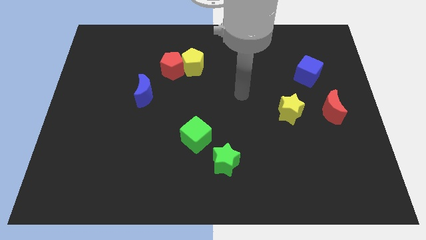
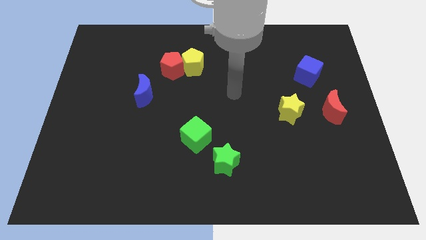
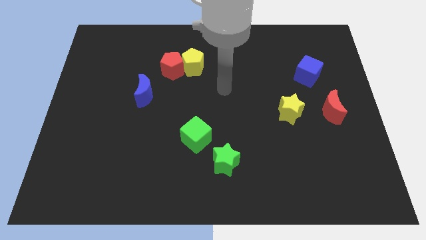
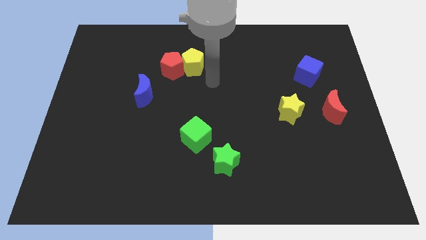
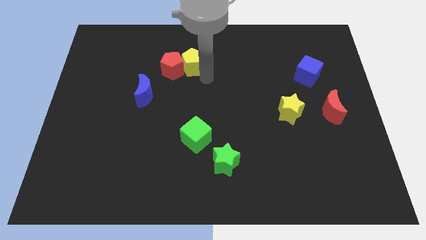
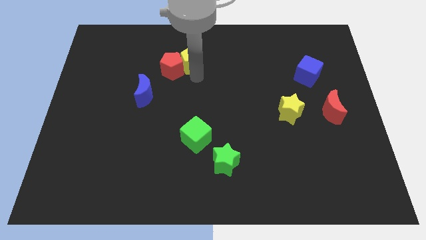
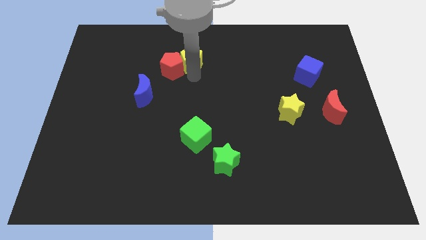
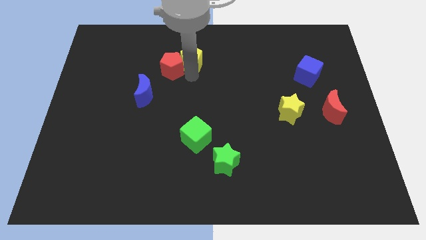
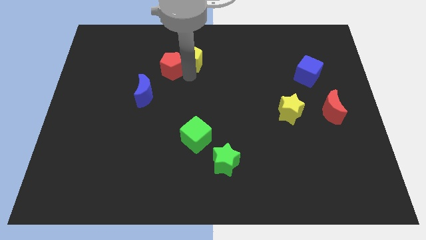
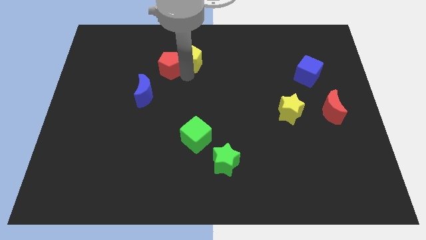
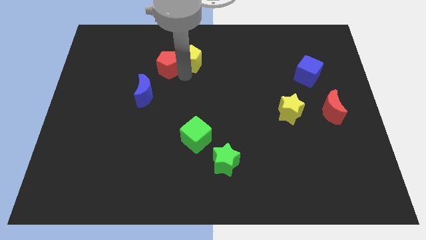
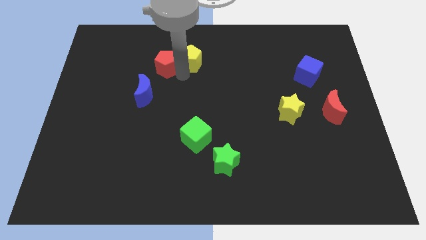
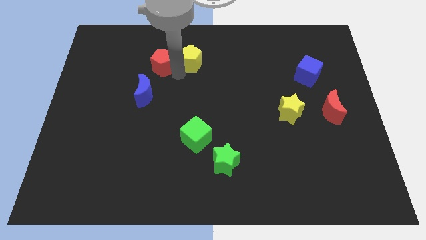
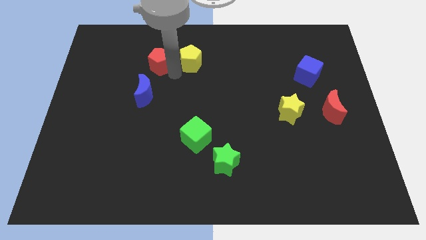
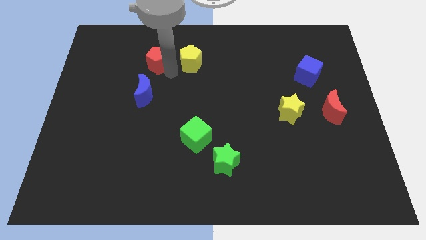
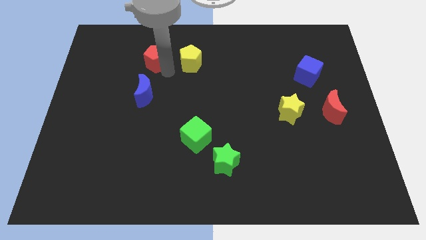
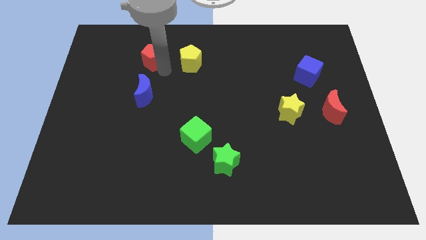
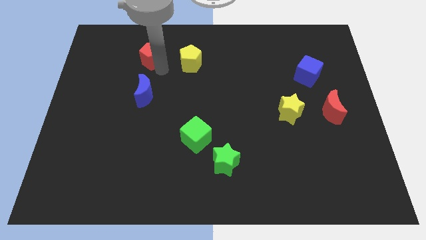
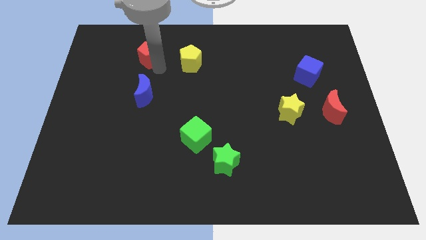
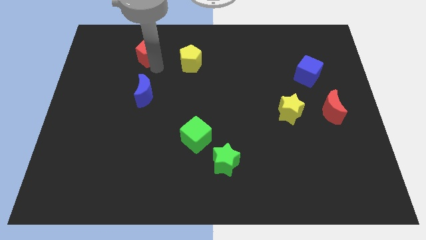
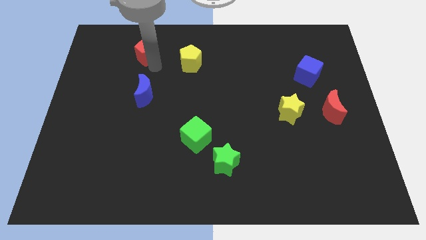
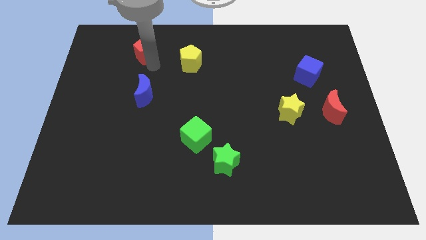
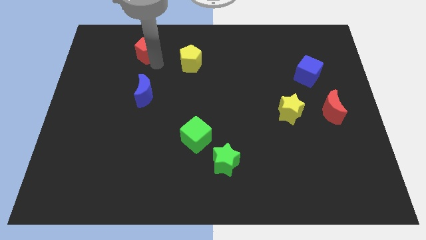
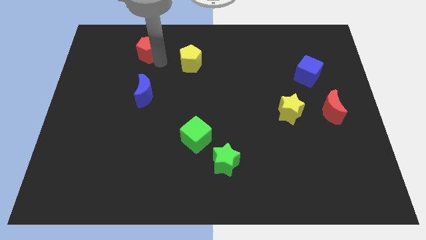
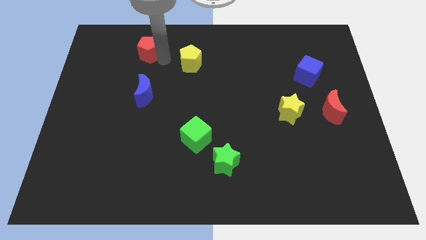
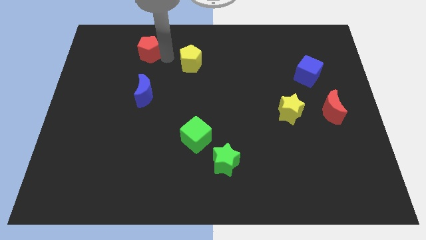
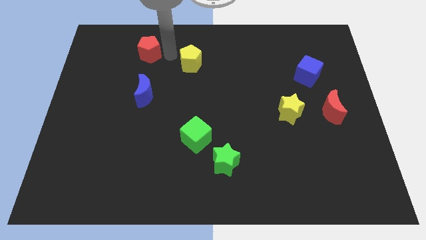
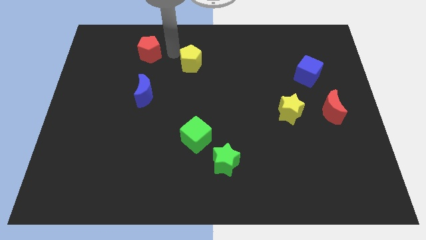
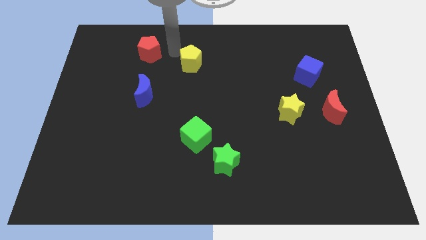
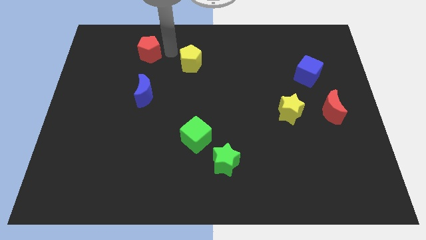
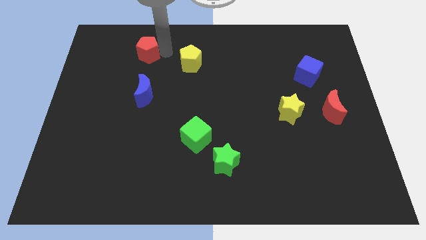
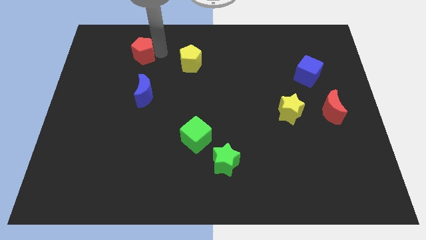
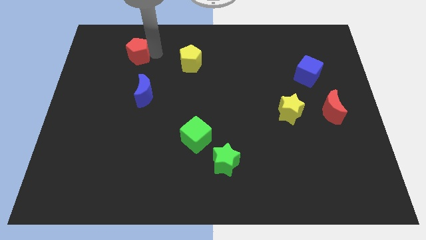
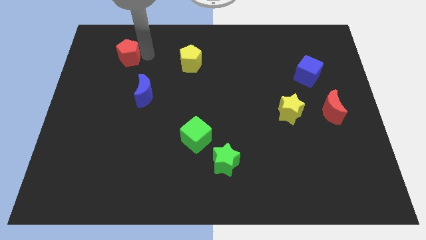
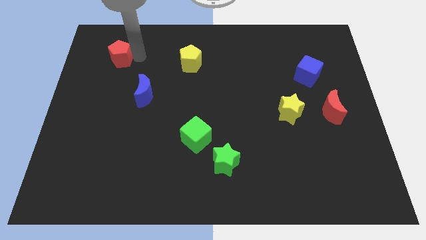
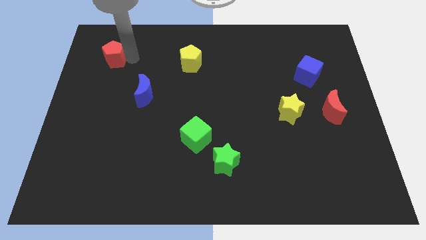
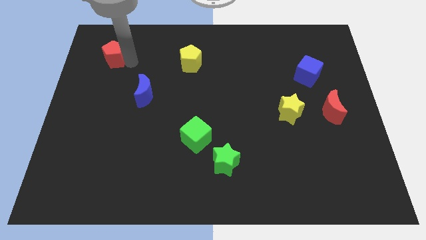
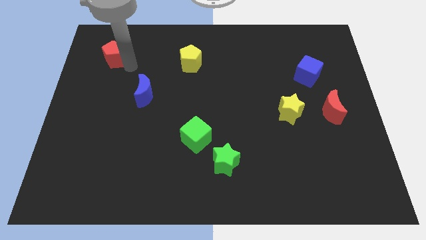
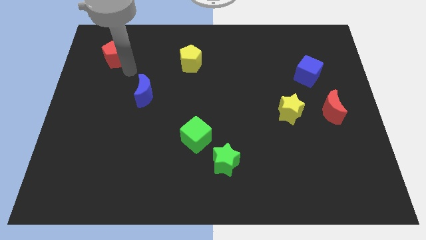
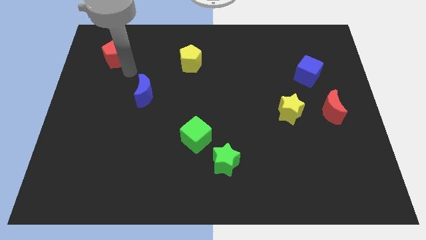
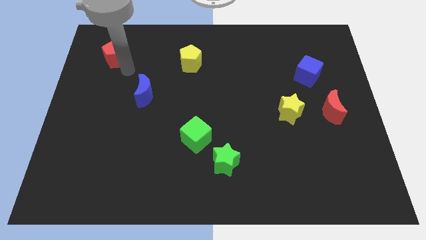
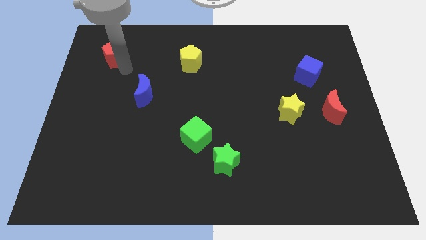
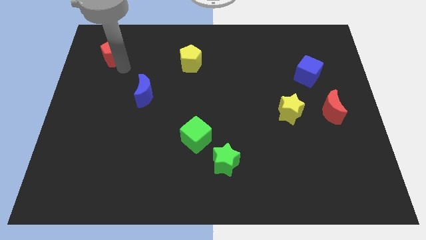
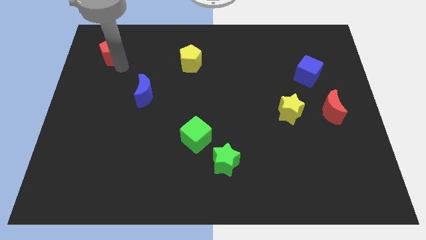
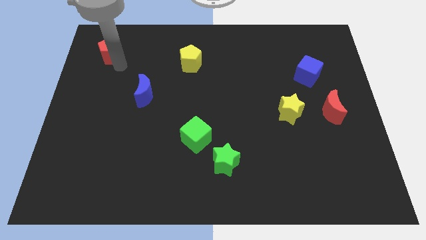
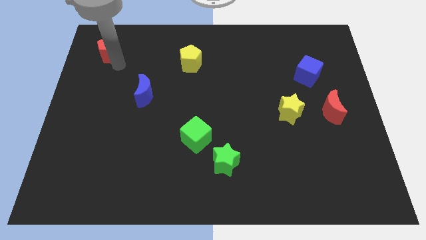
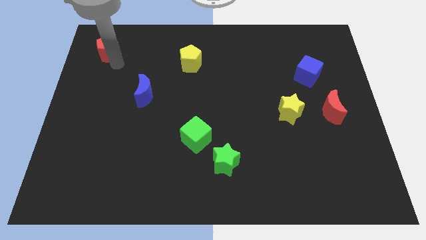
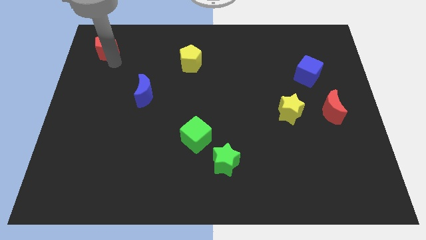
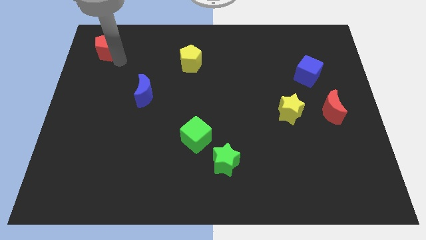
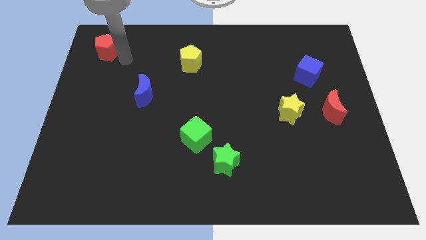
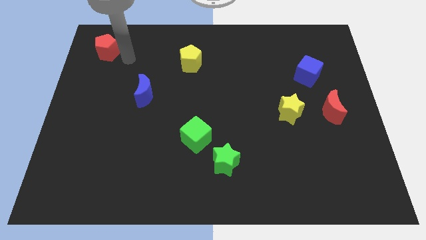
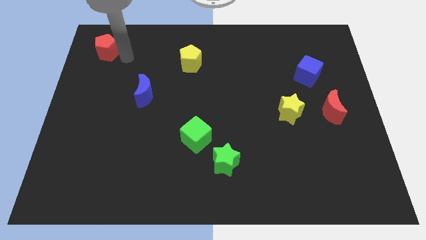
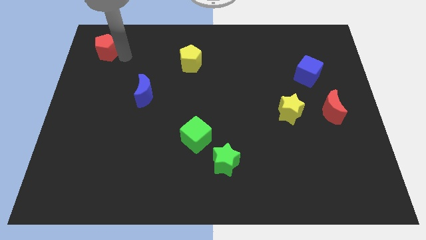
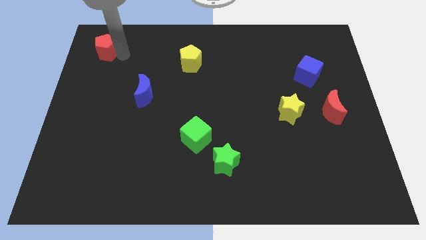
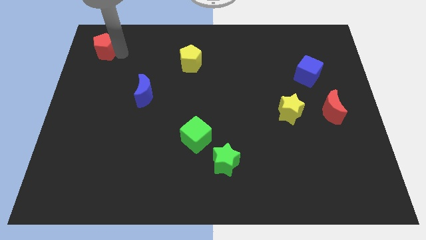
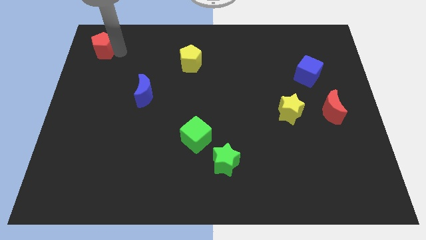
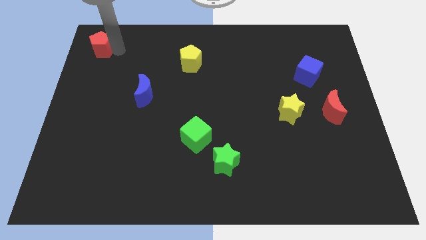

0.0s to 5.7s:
put the red pentagon to the top left corner

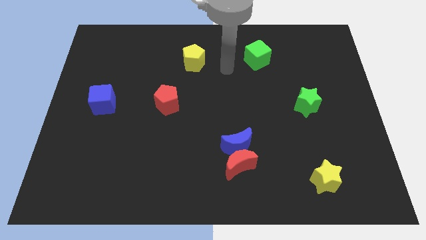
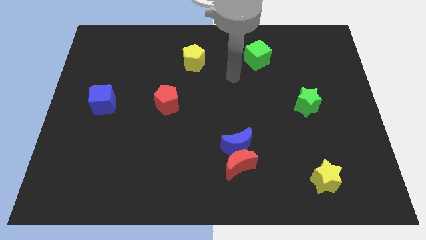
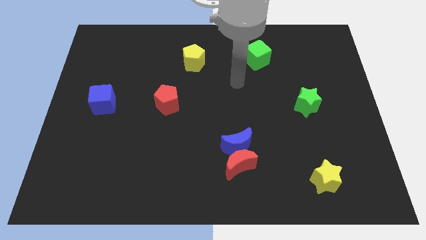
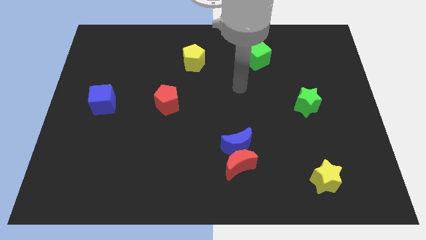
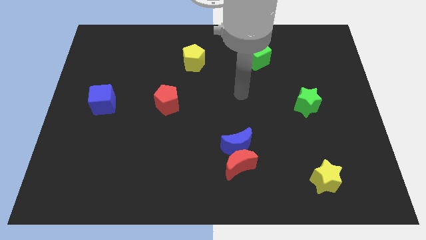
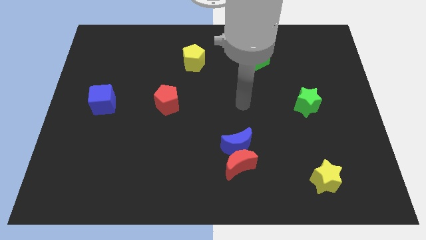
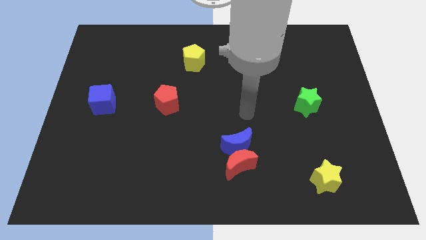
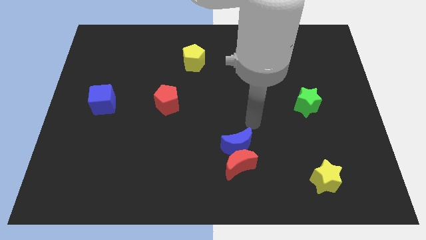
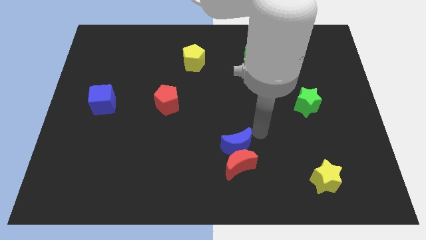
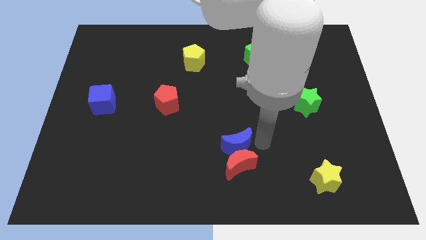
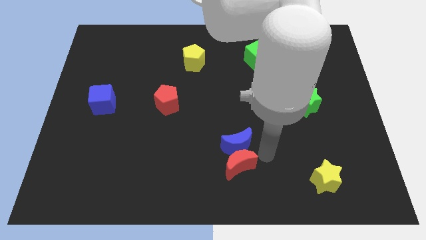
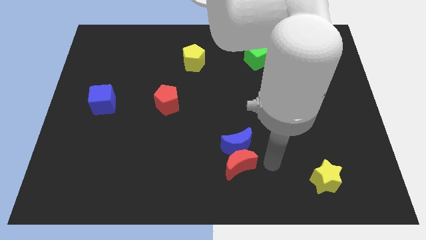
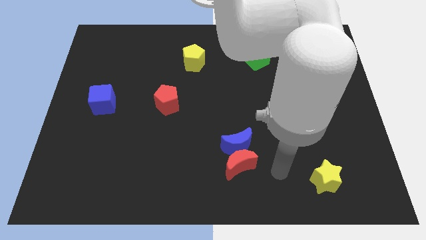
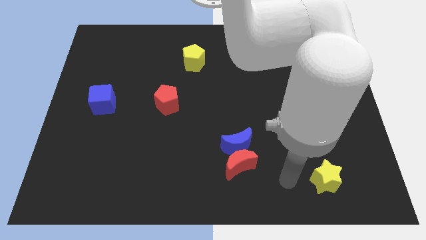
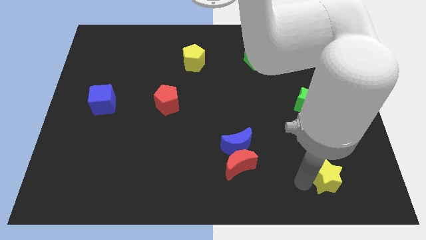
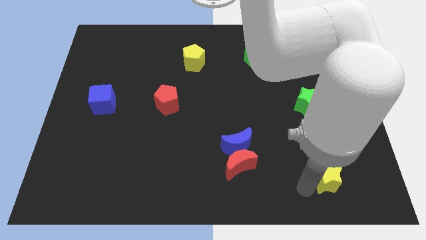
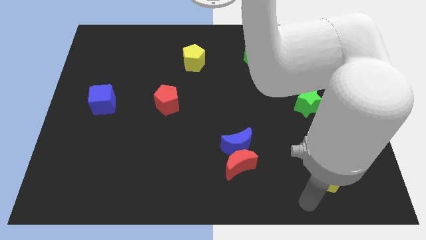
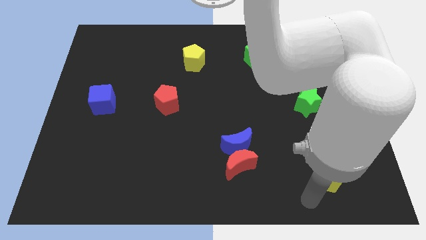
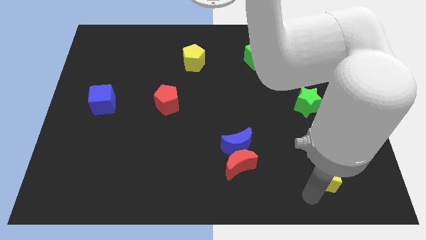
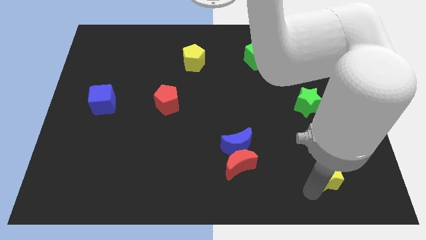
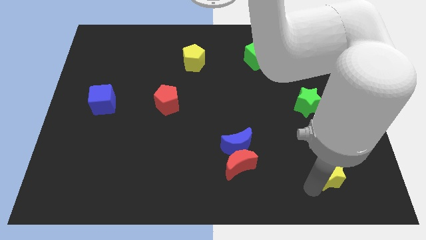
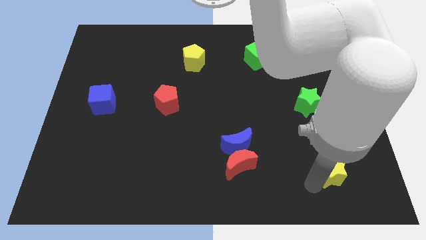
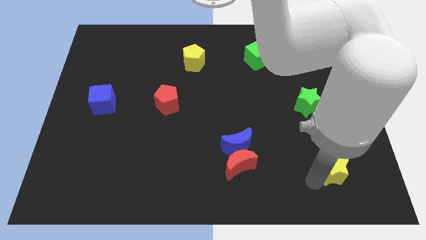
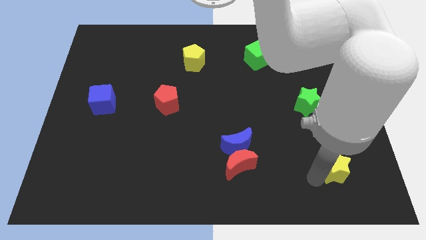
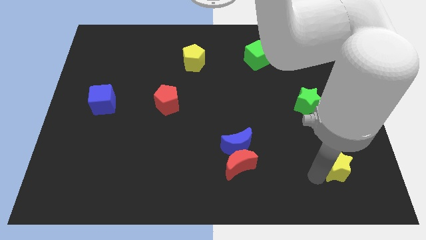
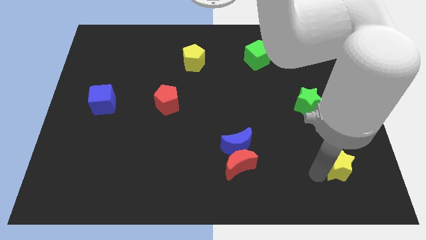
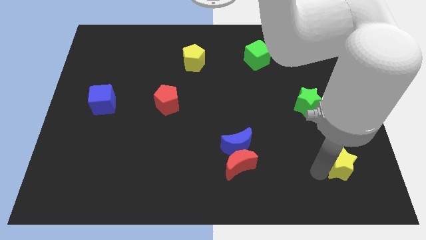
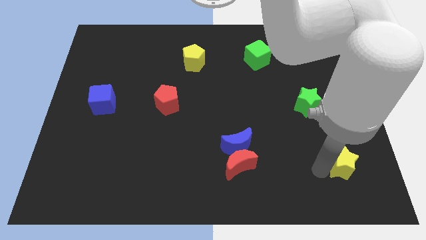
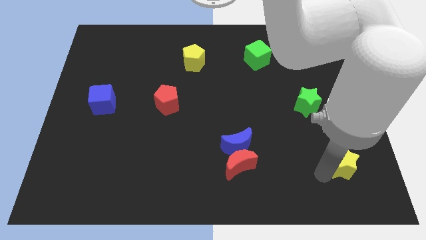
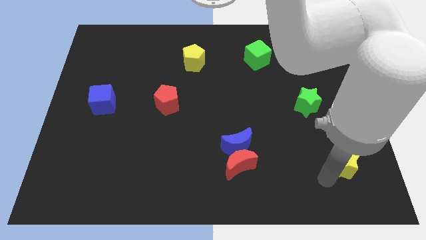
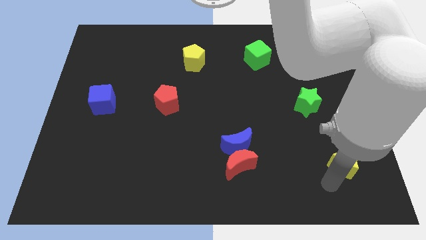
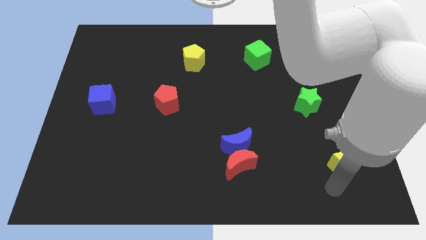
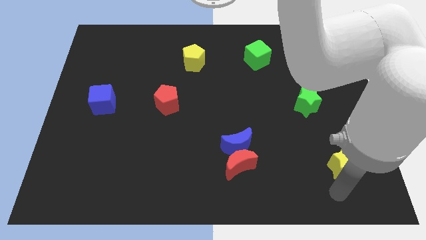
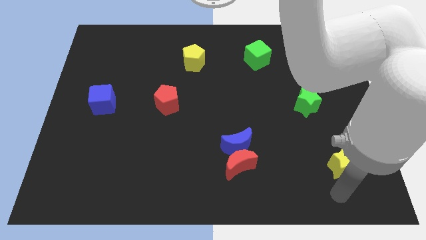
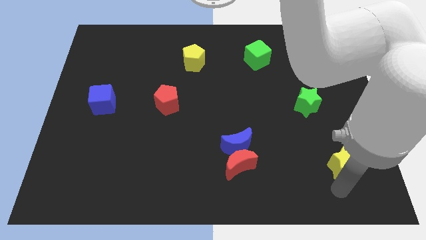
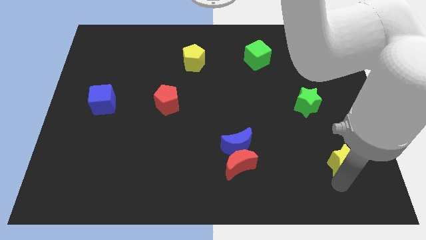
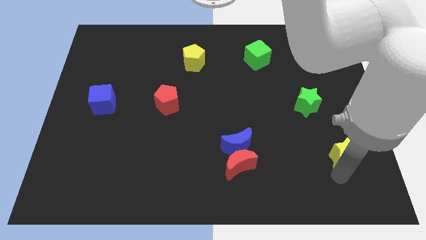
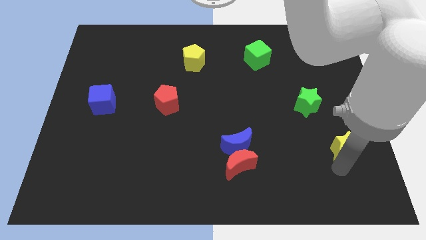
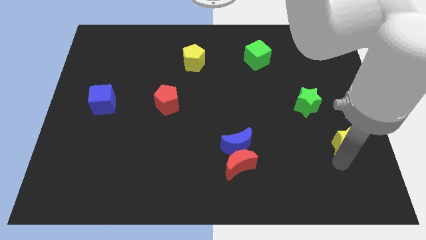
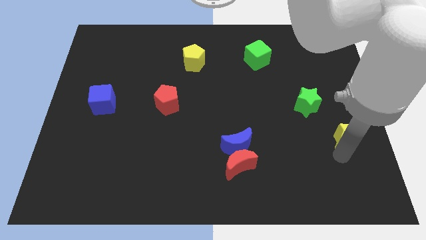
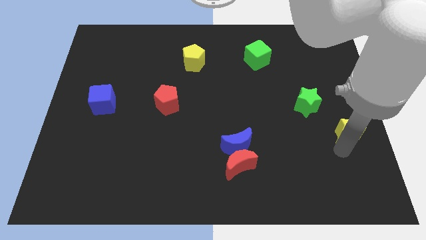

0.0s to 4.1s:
slide the yellow star to the center right
